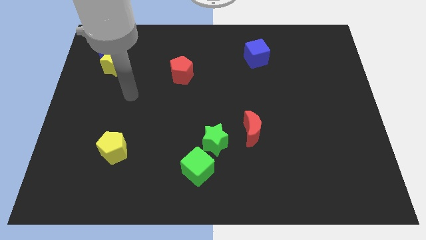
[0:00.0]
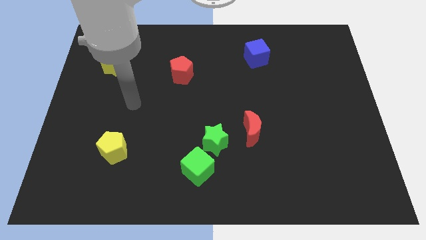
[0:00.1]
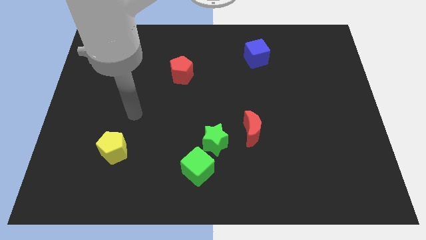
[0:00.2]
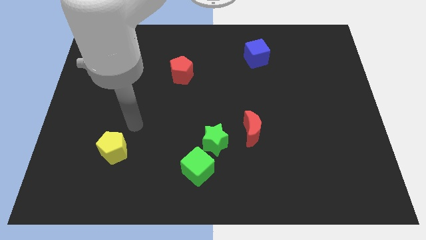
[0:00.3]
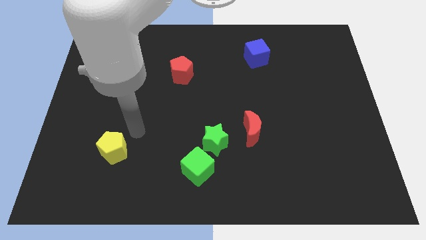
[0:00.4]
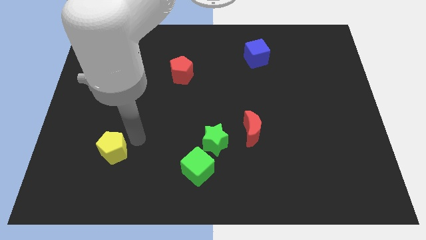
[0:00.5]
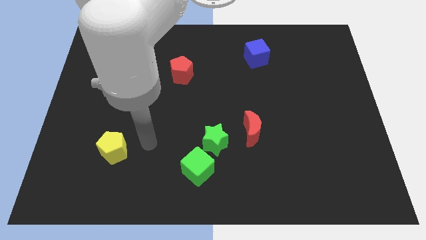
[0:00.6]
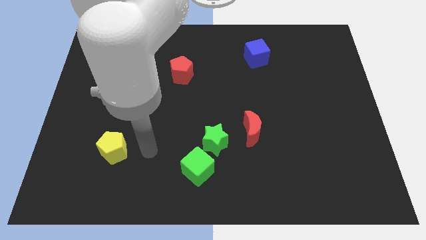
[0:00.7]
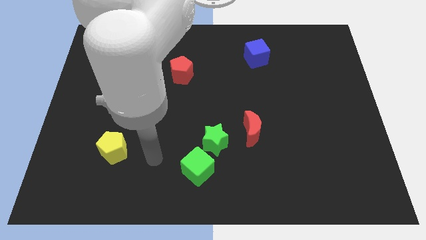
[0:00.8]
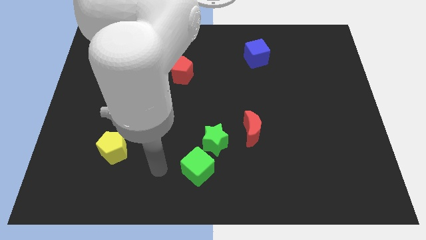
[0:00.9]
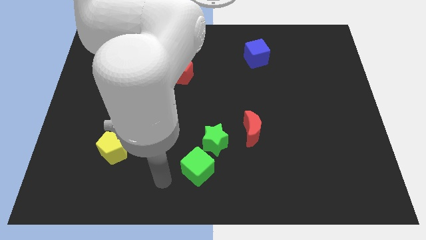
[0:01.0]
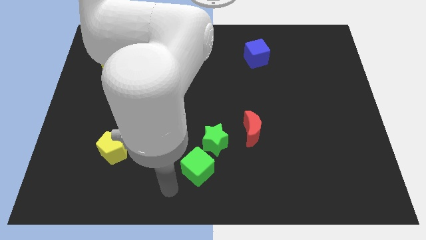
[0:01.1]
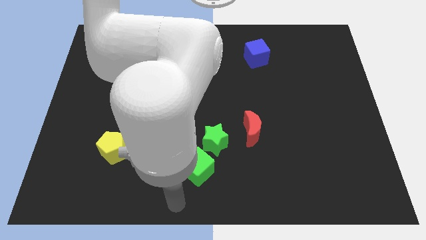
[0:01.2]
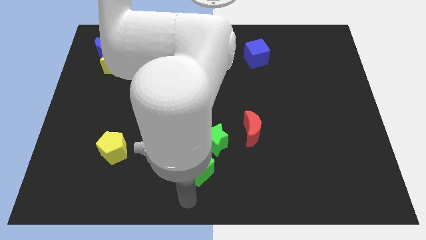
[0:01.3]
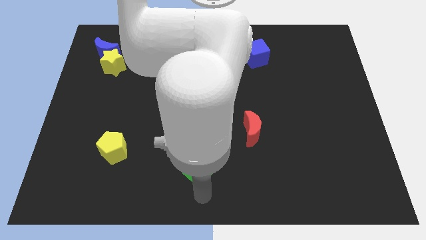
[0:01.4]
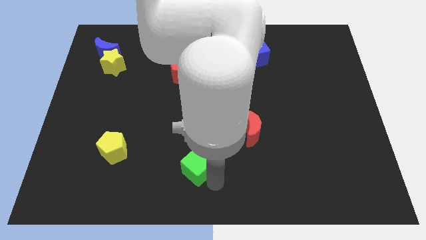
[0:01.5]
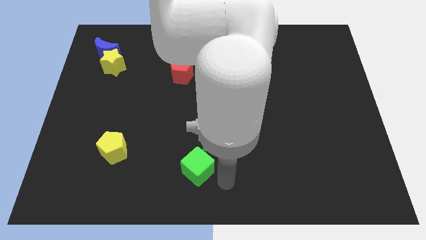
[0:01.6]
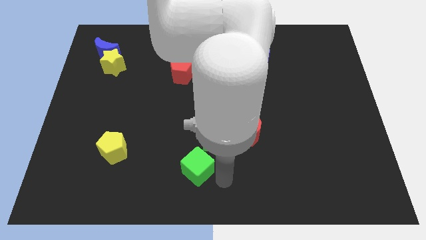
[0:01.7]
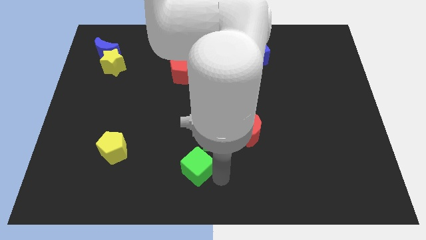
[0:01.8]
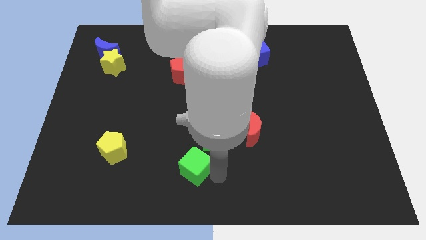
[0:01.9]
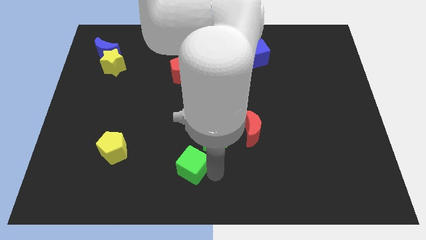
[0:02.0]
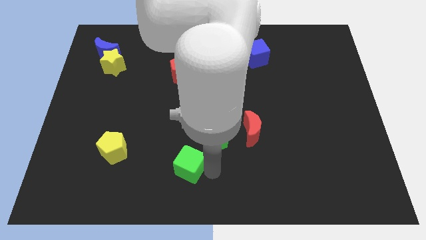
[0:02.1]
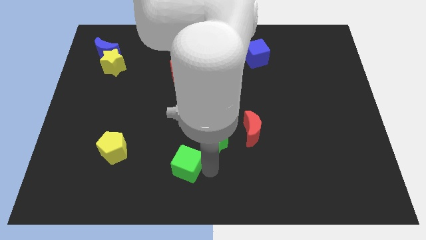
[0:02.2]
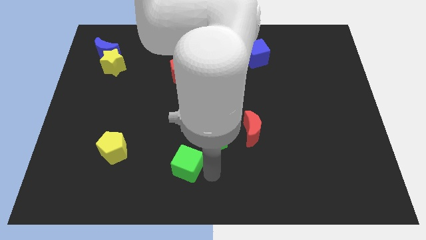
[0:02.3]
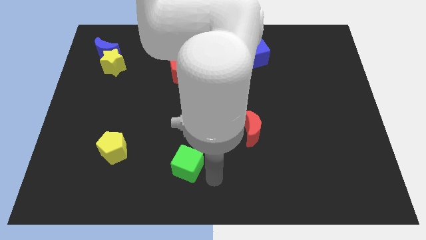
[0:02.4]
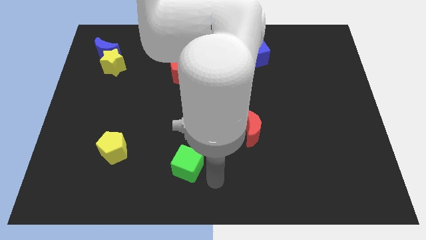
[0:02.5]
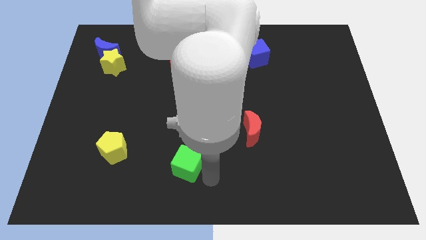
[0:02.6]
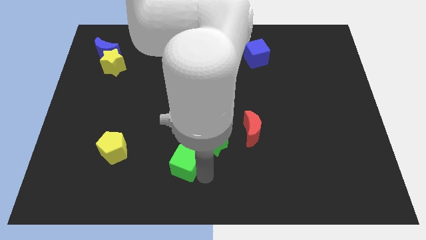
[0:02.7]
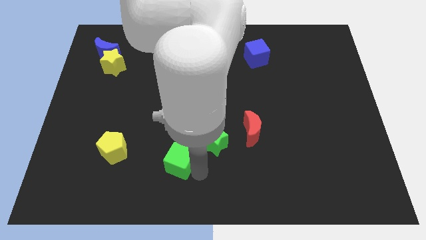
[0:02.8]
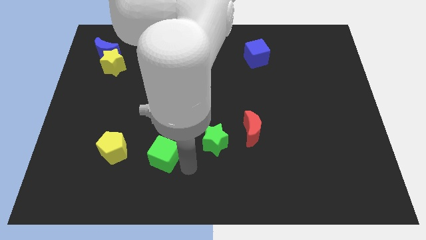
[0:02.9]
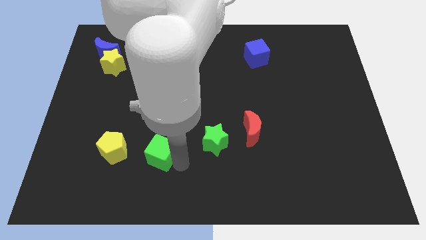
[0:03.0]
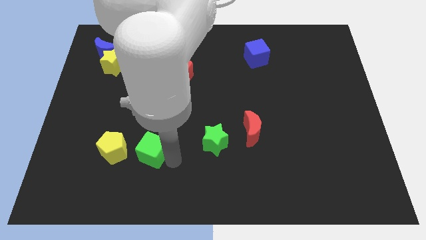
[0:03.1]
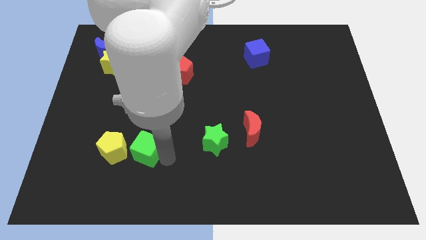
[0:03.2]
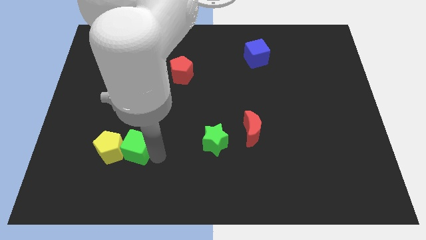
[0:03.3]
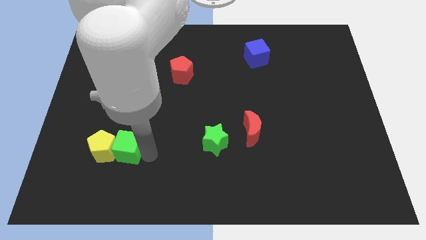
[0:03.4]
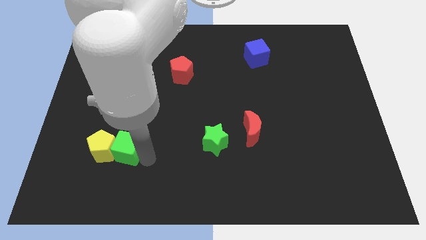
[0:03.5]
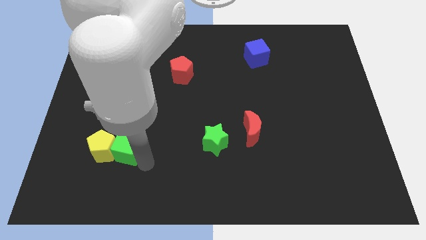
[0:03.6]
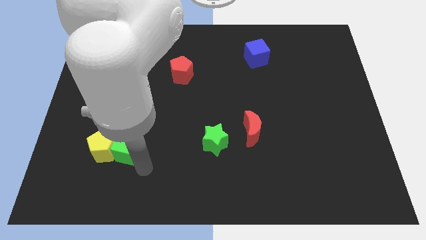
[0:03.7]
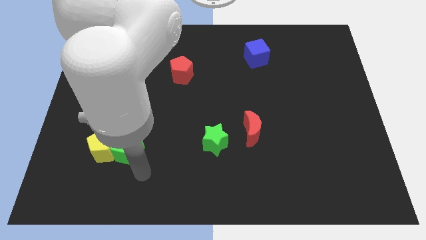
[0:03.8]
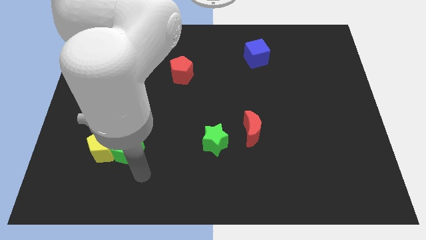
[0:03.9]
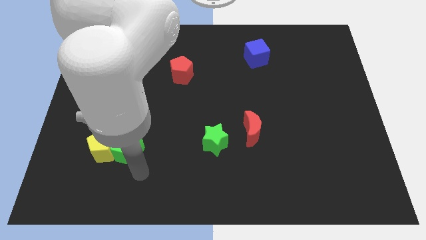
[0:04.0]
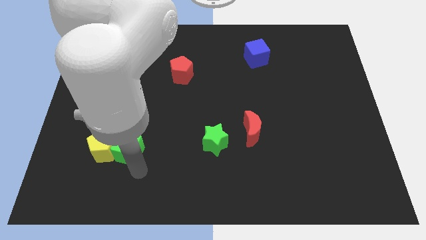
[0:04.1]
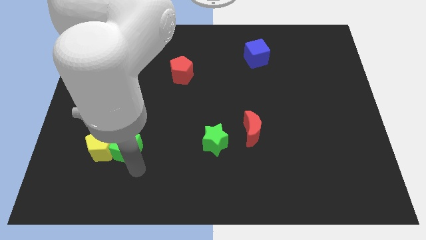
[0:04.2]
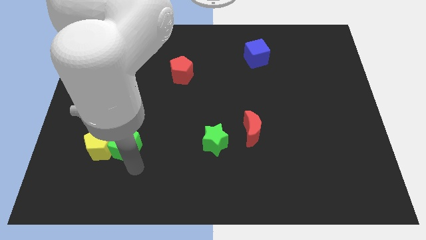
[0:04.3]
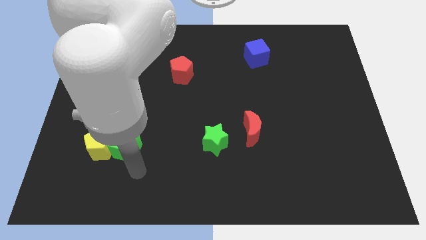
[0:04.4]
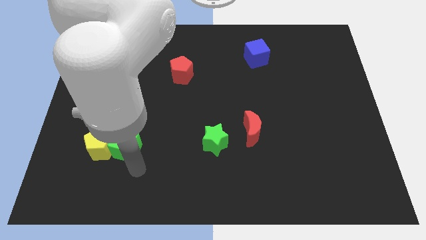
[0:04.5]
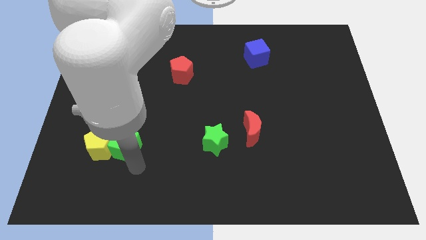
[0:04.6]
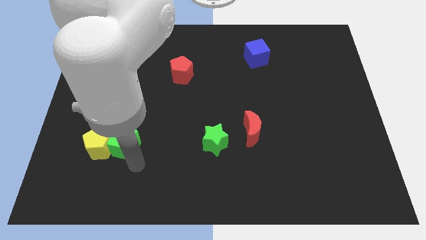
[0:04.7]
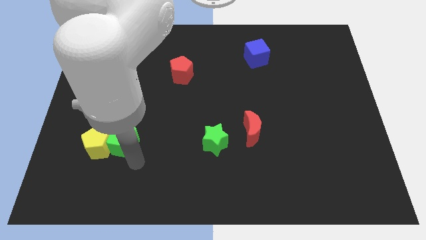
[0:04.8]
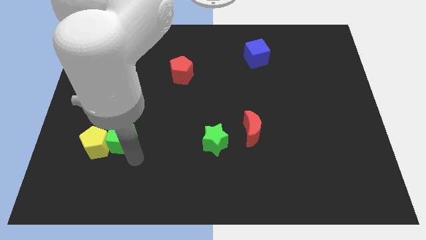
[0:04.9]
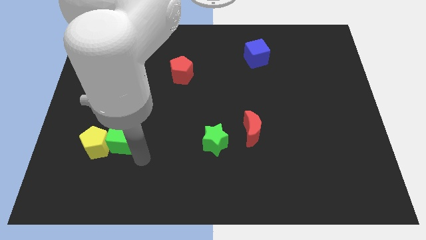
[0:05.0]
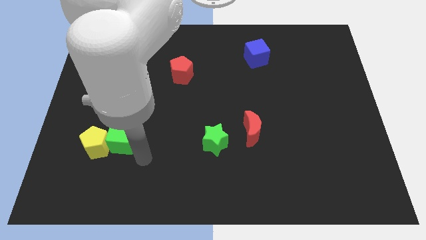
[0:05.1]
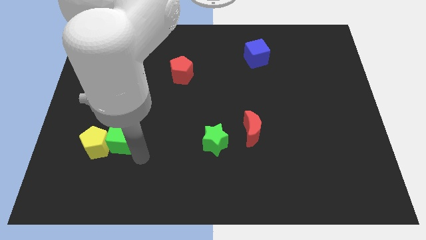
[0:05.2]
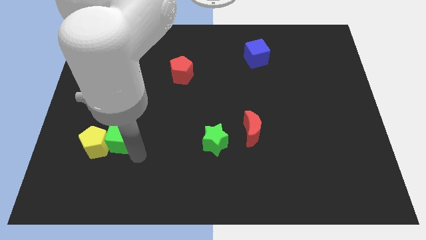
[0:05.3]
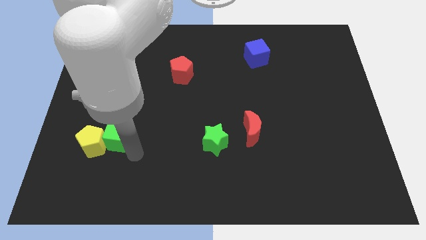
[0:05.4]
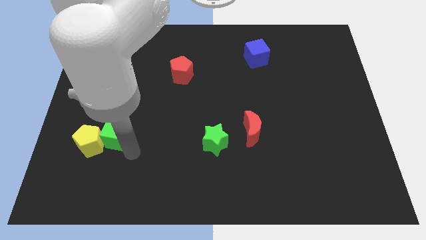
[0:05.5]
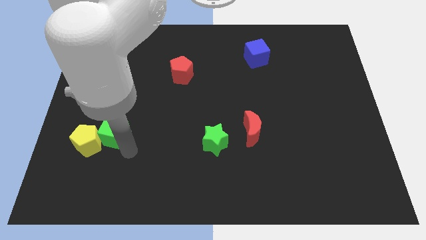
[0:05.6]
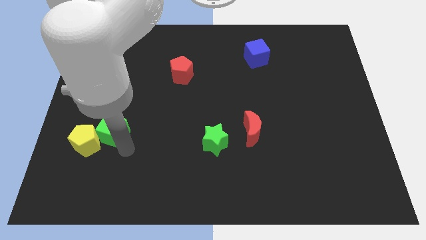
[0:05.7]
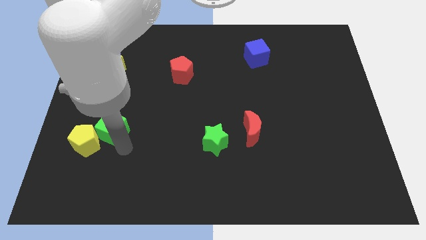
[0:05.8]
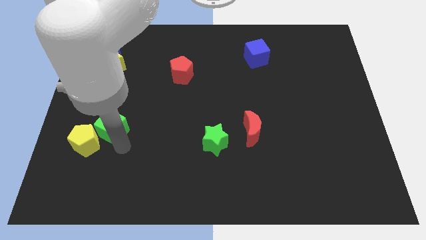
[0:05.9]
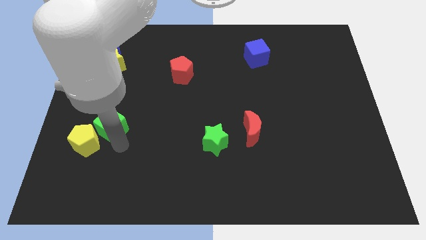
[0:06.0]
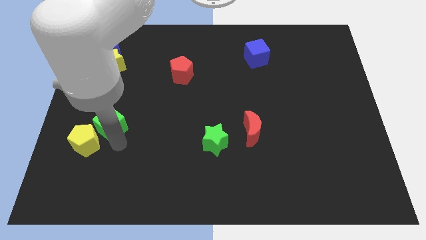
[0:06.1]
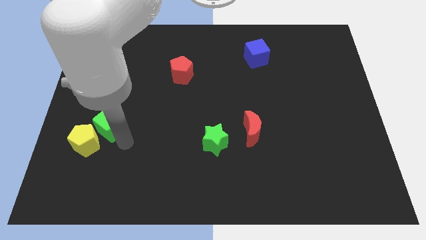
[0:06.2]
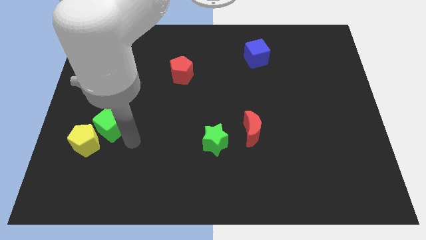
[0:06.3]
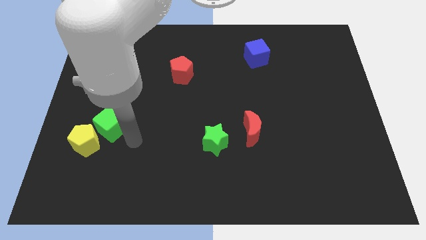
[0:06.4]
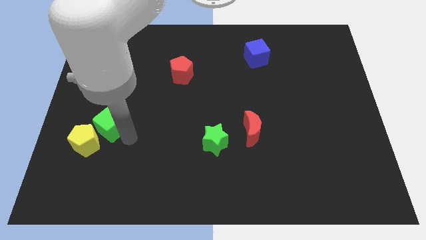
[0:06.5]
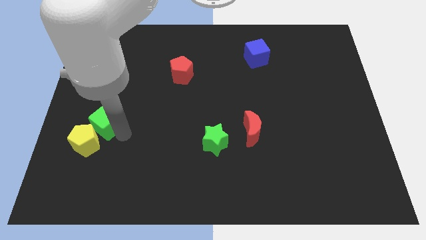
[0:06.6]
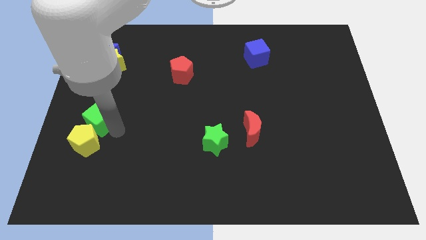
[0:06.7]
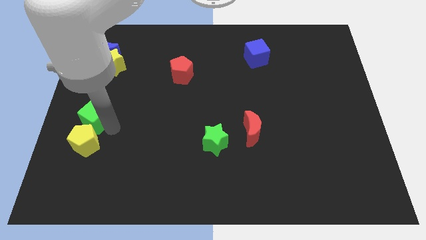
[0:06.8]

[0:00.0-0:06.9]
put the green cube to the center left
